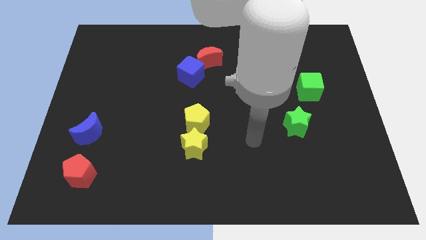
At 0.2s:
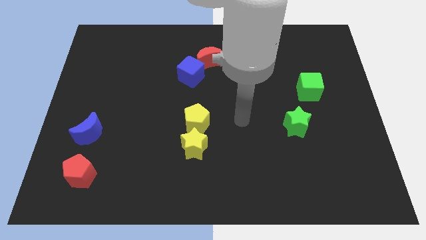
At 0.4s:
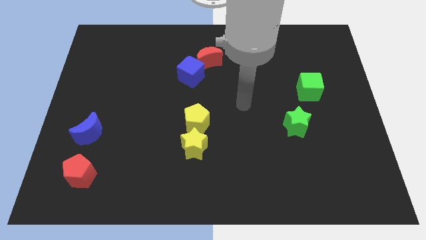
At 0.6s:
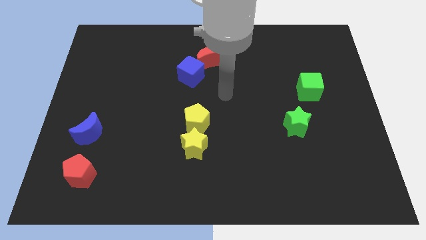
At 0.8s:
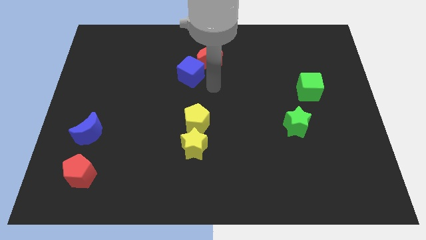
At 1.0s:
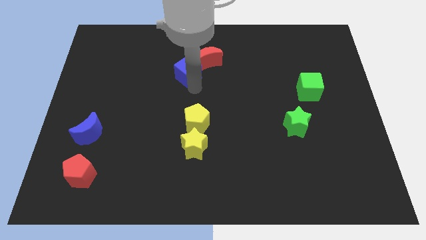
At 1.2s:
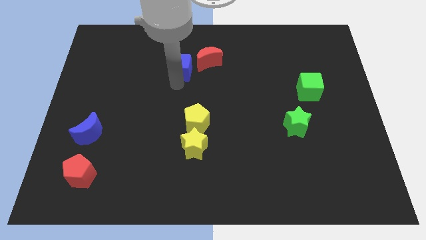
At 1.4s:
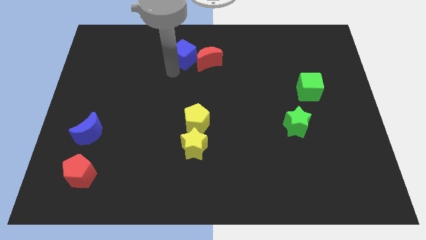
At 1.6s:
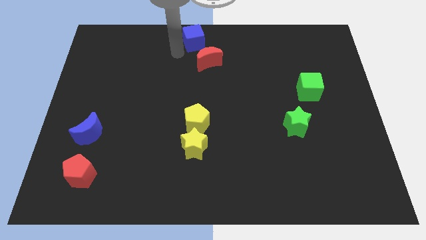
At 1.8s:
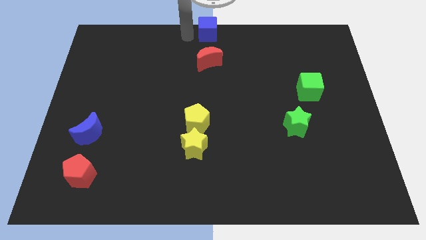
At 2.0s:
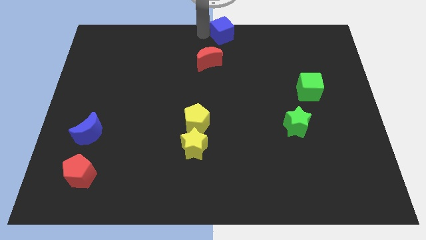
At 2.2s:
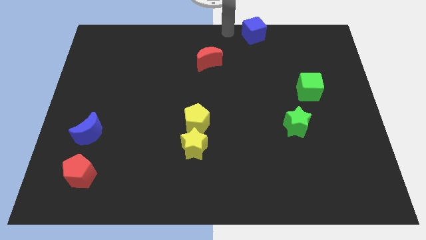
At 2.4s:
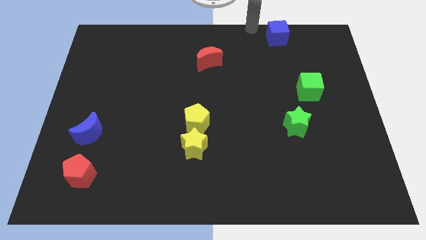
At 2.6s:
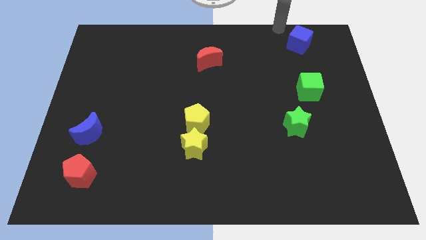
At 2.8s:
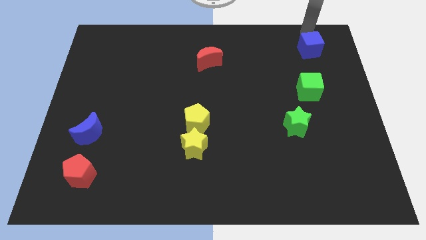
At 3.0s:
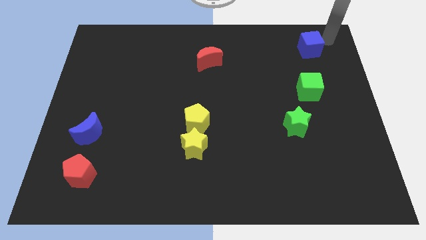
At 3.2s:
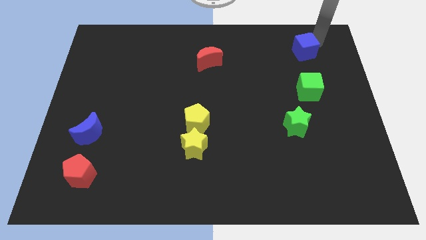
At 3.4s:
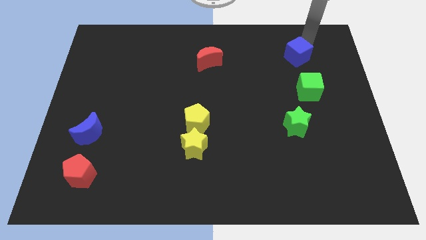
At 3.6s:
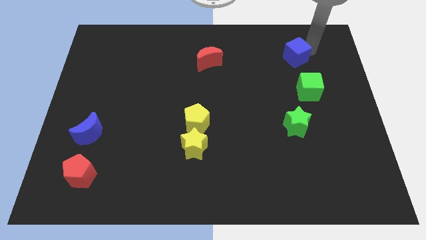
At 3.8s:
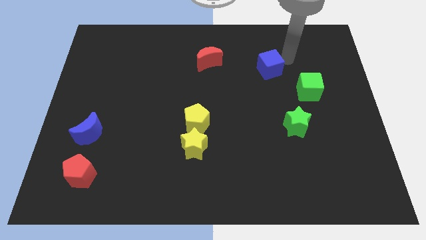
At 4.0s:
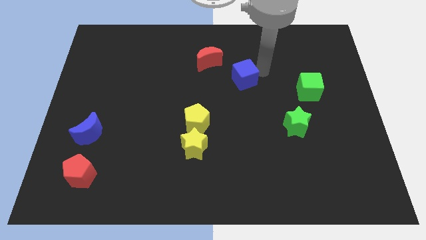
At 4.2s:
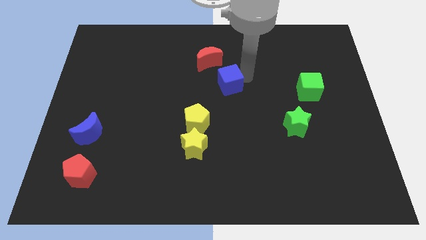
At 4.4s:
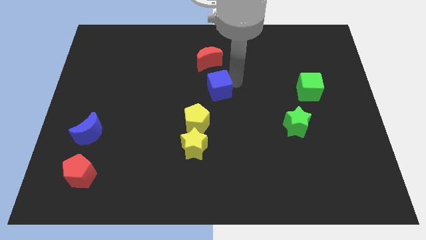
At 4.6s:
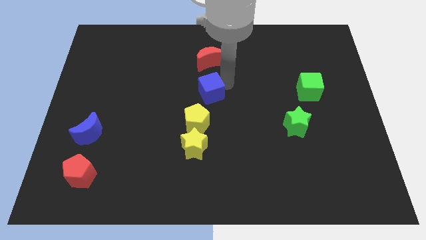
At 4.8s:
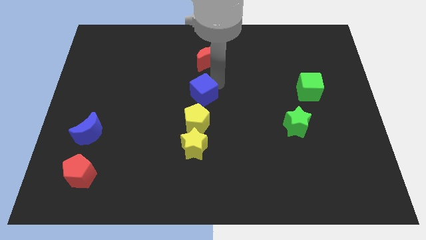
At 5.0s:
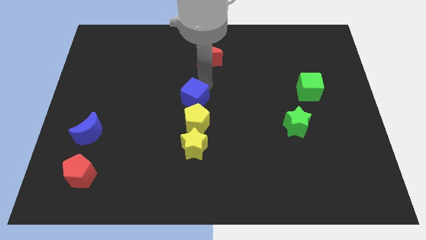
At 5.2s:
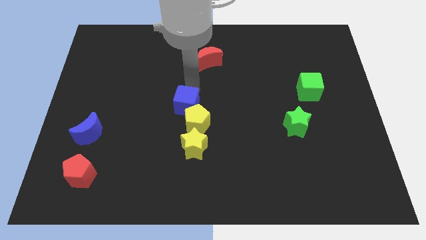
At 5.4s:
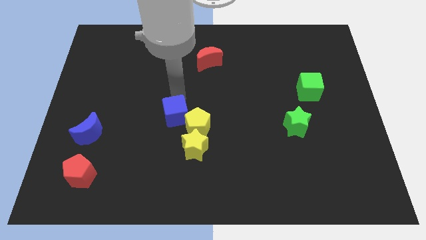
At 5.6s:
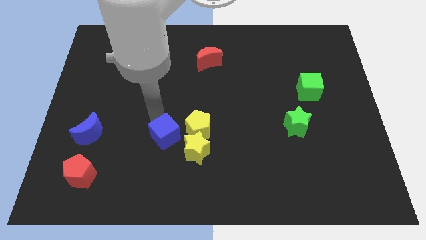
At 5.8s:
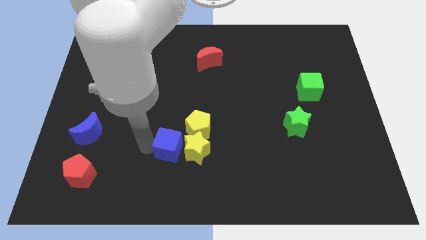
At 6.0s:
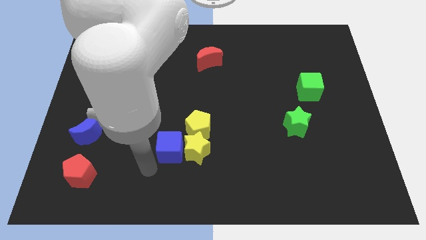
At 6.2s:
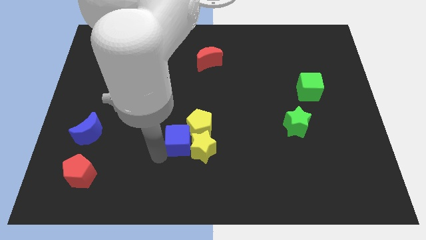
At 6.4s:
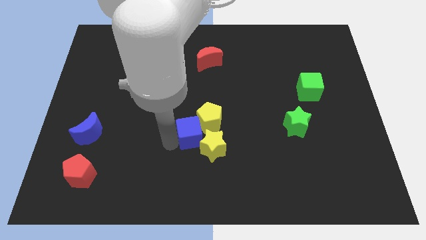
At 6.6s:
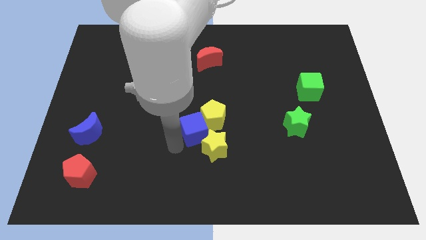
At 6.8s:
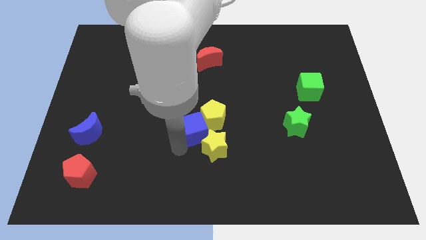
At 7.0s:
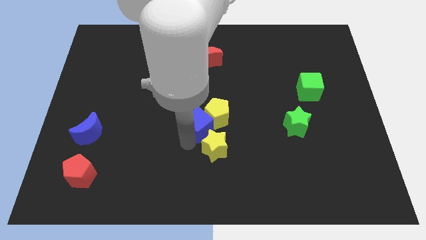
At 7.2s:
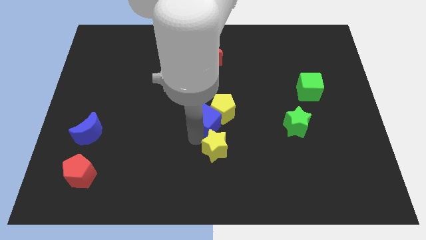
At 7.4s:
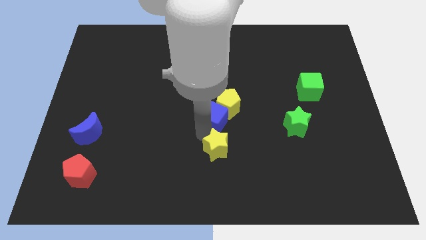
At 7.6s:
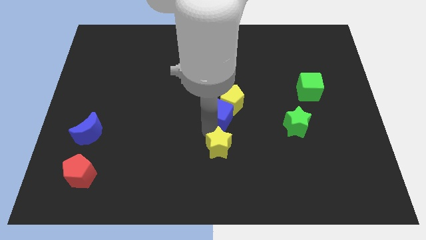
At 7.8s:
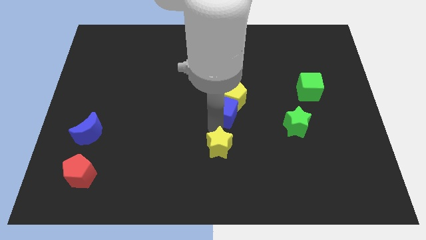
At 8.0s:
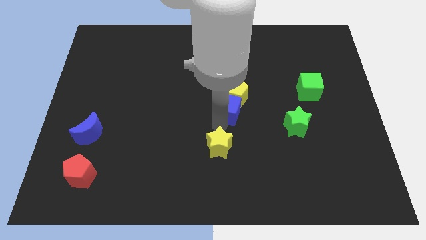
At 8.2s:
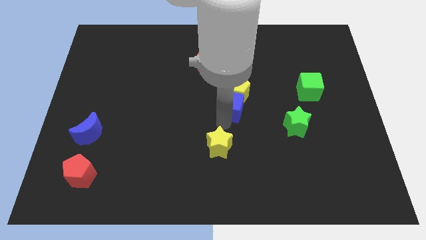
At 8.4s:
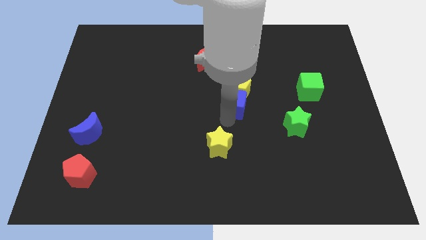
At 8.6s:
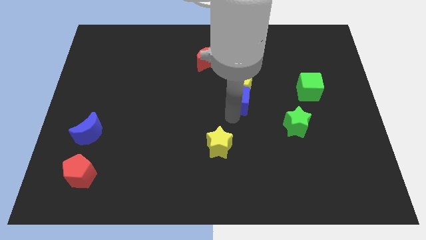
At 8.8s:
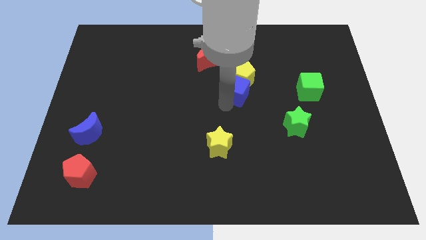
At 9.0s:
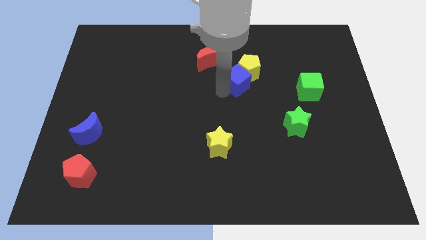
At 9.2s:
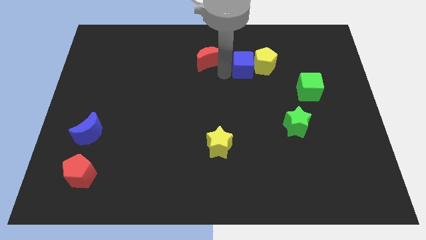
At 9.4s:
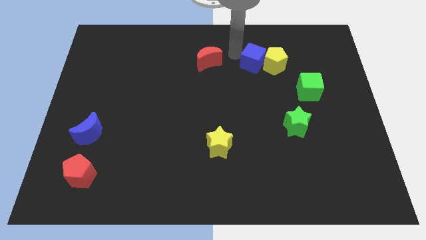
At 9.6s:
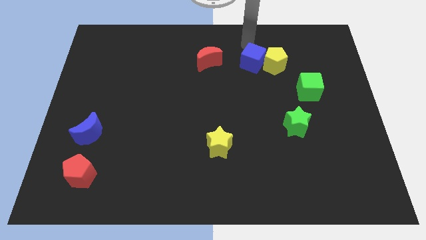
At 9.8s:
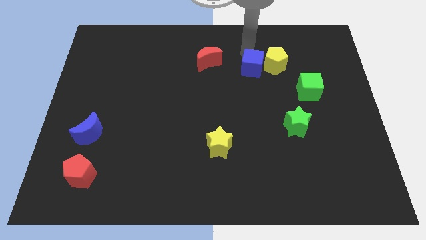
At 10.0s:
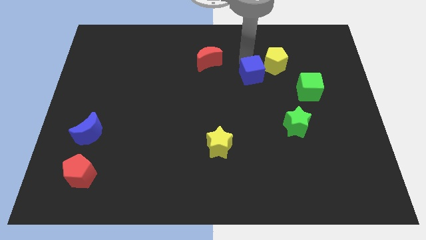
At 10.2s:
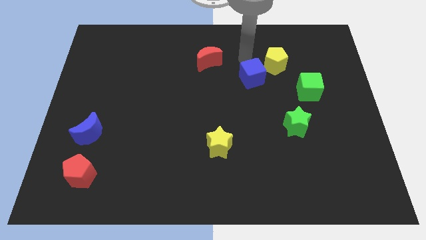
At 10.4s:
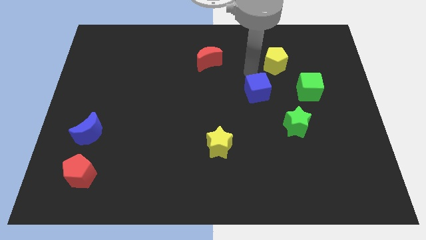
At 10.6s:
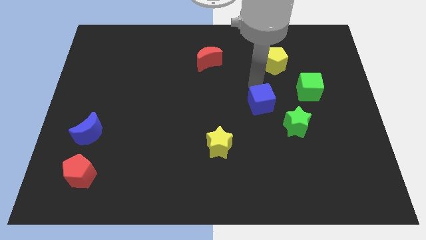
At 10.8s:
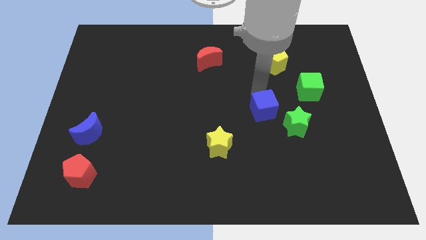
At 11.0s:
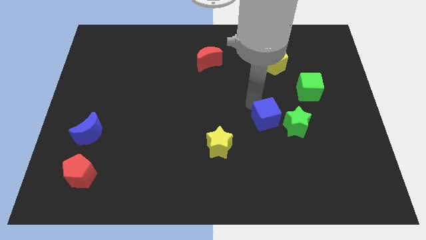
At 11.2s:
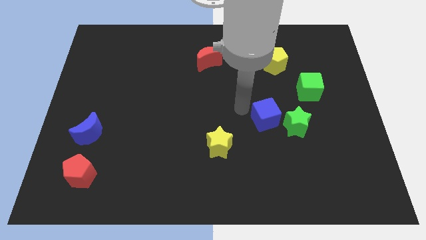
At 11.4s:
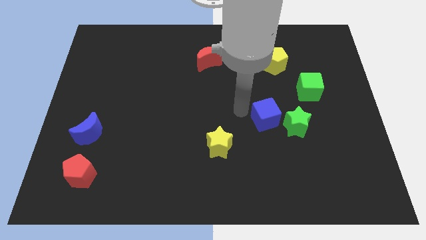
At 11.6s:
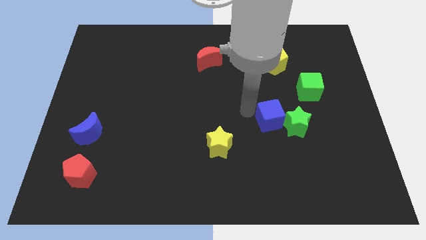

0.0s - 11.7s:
move the blue cube towards the green star

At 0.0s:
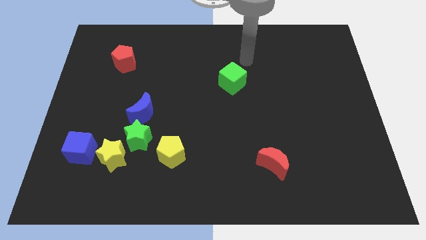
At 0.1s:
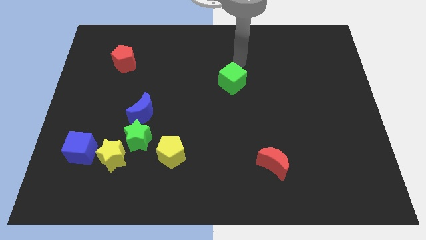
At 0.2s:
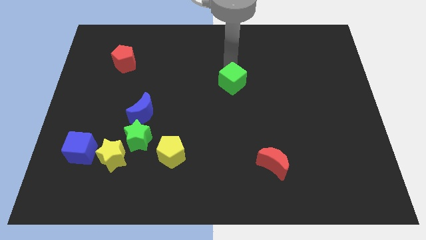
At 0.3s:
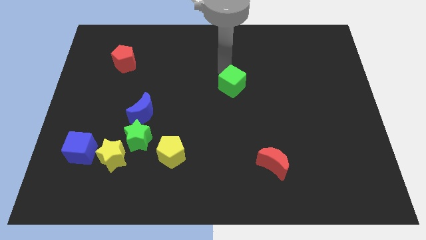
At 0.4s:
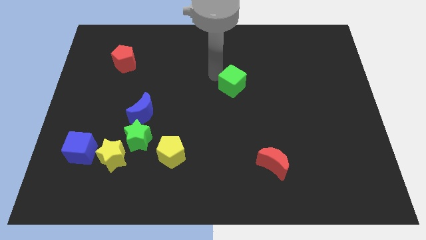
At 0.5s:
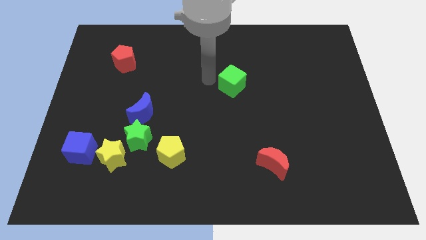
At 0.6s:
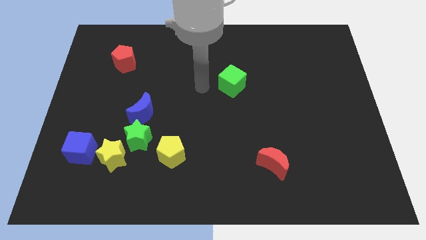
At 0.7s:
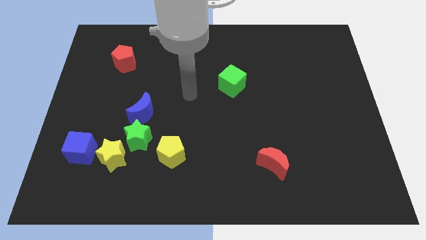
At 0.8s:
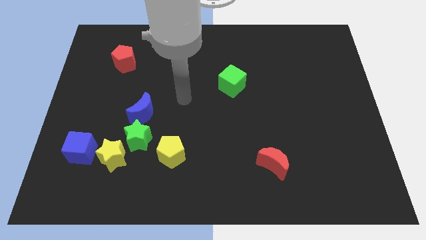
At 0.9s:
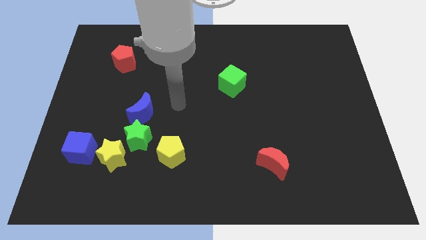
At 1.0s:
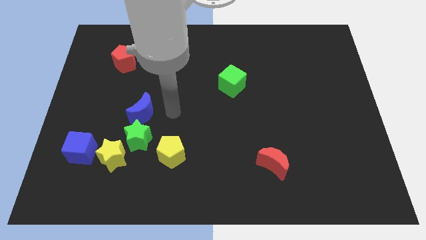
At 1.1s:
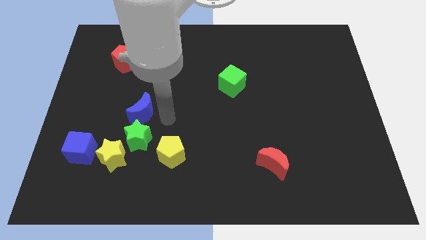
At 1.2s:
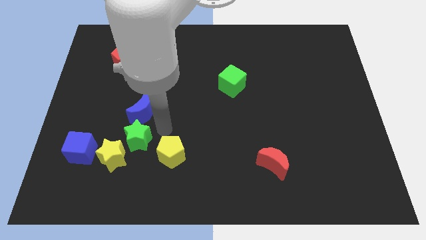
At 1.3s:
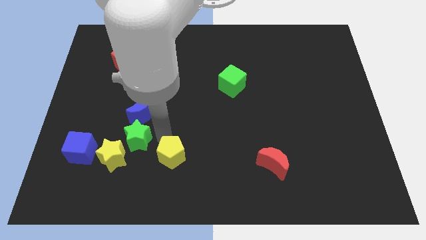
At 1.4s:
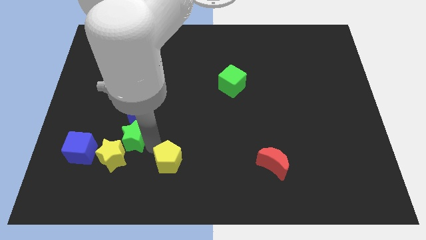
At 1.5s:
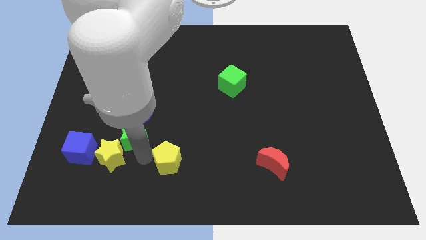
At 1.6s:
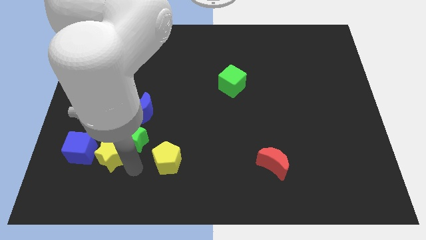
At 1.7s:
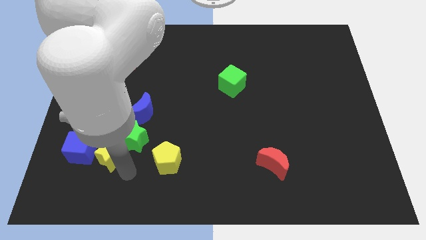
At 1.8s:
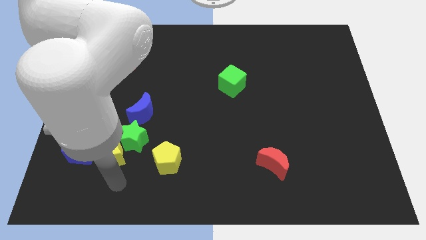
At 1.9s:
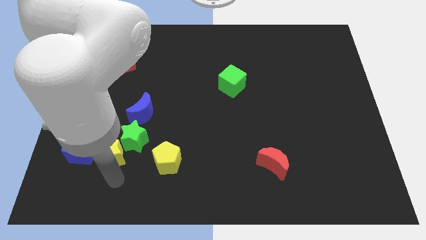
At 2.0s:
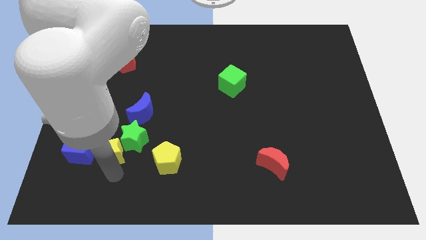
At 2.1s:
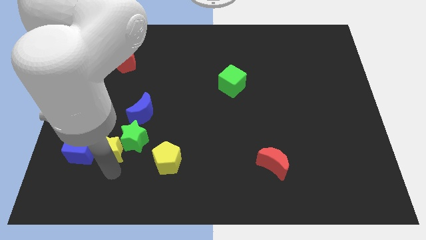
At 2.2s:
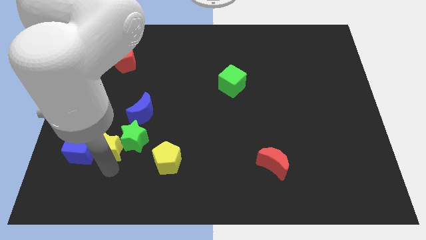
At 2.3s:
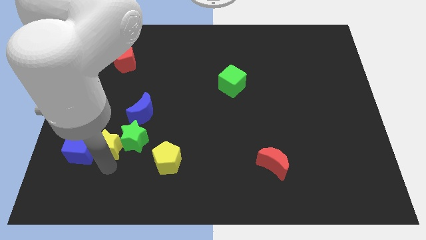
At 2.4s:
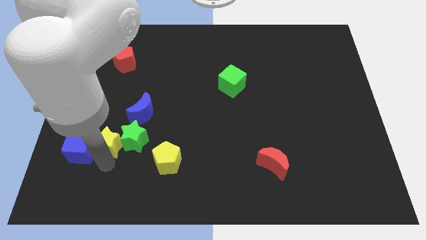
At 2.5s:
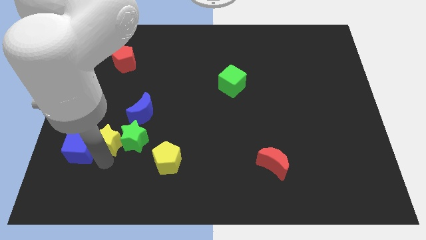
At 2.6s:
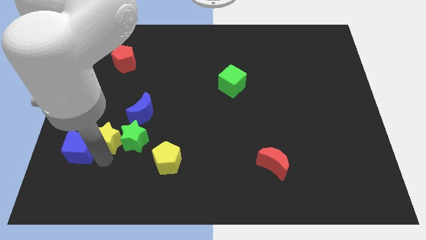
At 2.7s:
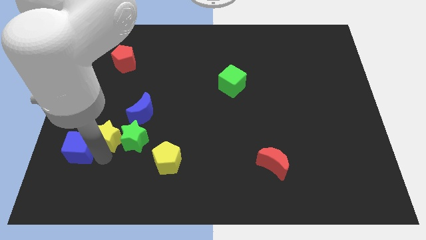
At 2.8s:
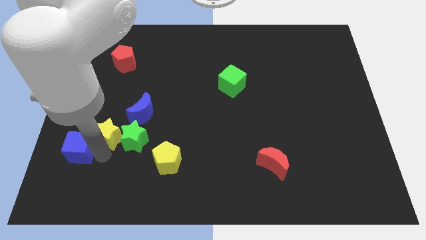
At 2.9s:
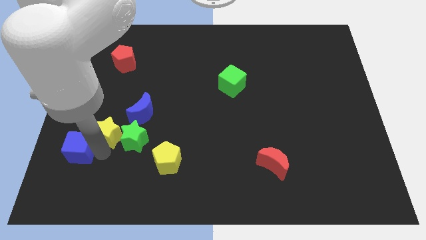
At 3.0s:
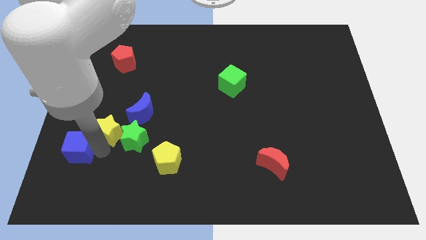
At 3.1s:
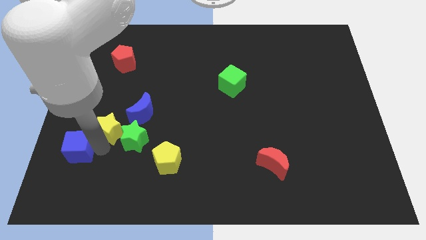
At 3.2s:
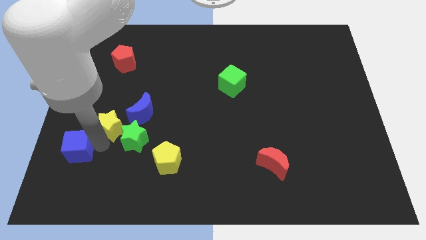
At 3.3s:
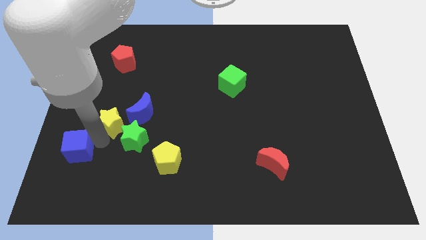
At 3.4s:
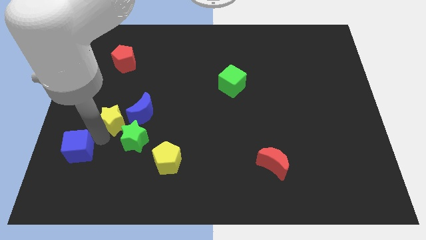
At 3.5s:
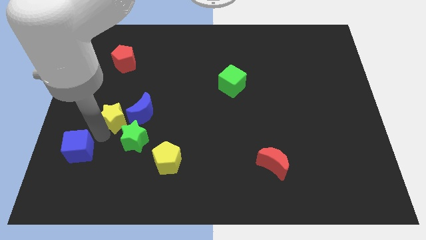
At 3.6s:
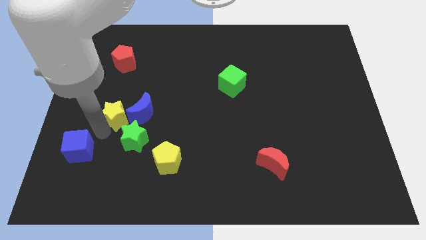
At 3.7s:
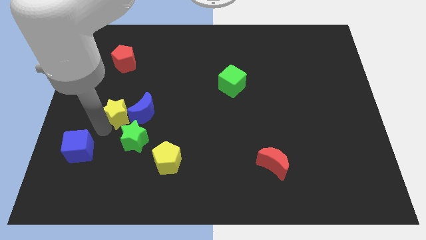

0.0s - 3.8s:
move the yellow star towards the blue moon
